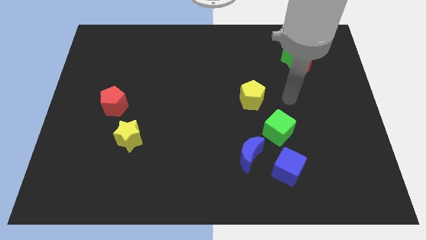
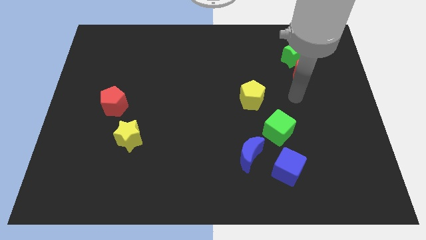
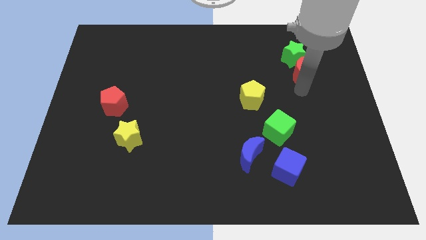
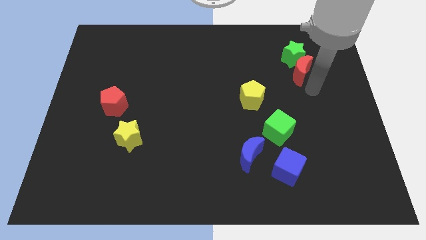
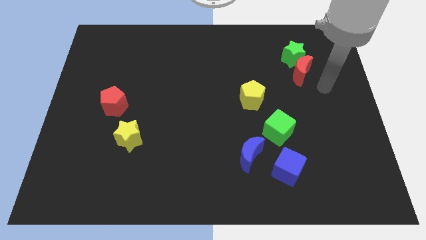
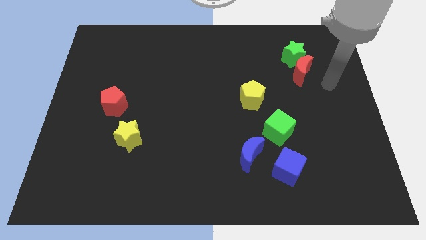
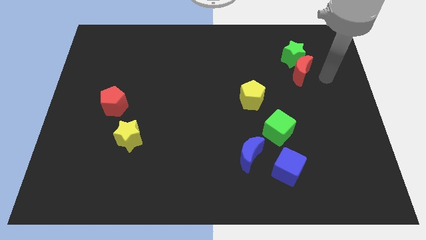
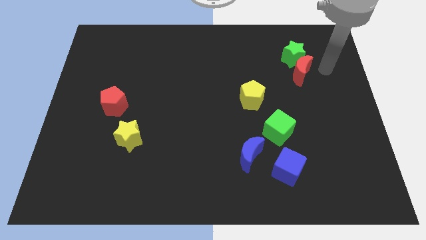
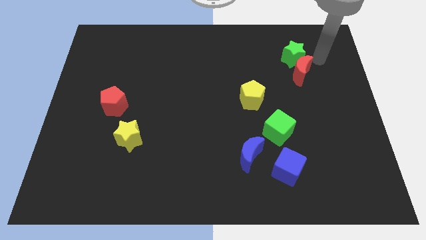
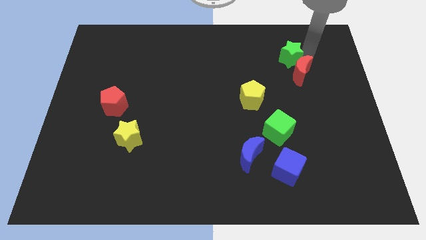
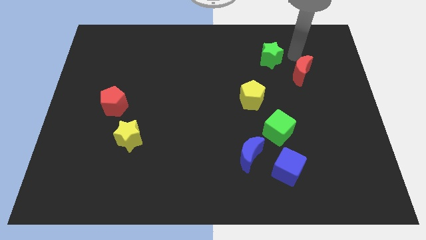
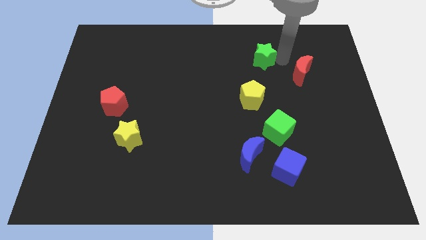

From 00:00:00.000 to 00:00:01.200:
separate the red moon from the green star

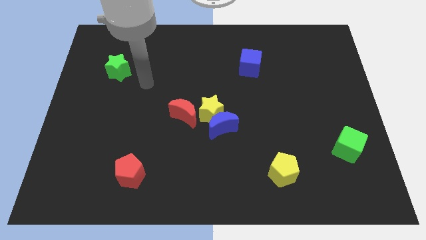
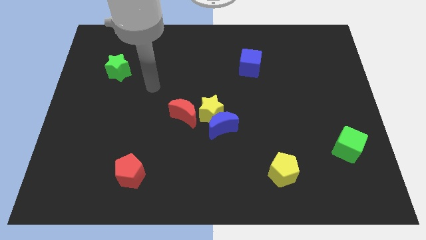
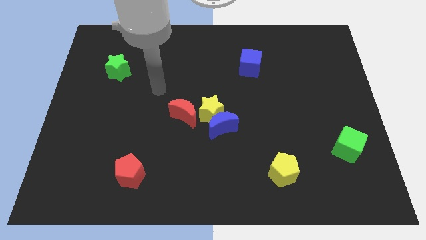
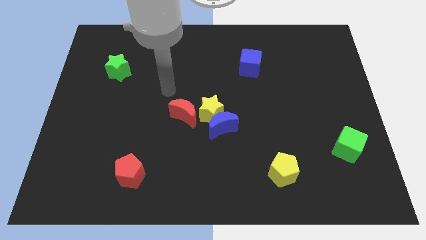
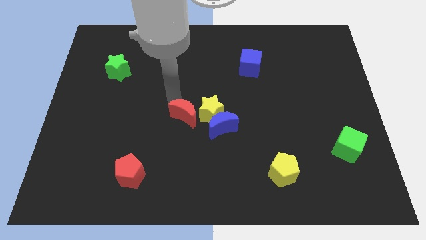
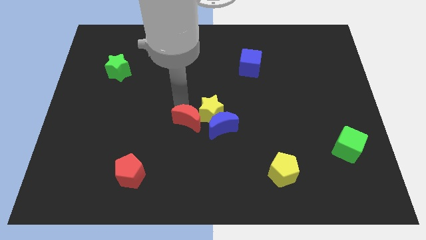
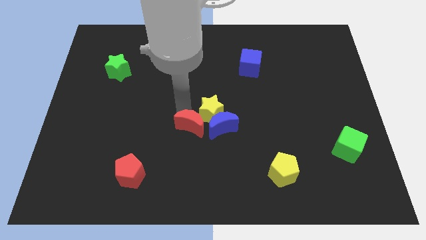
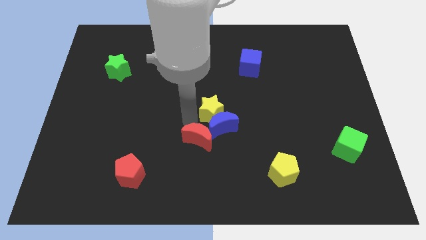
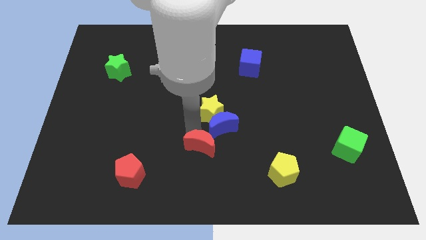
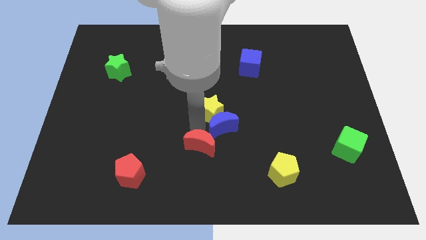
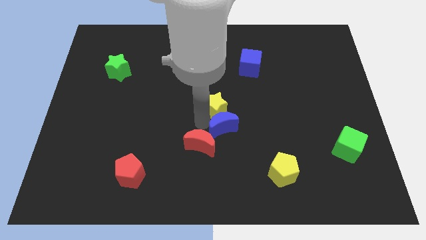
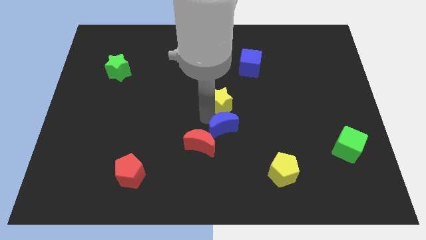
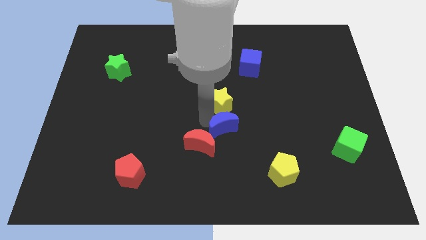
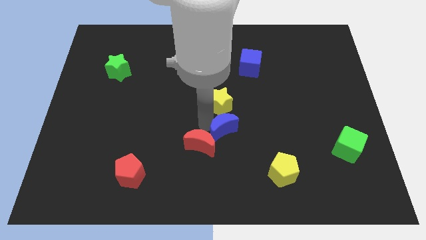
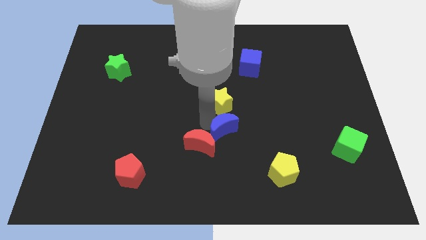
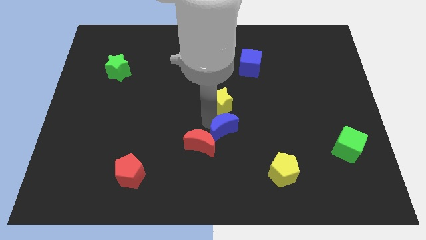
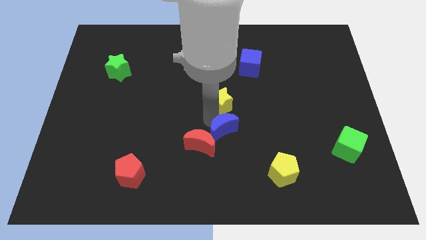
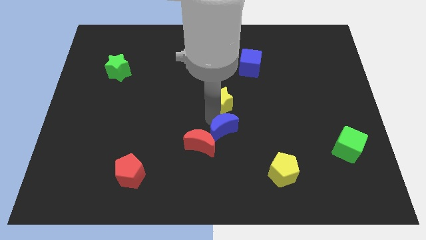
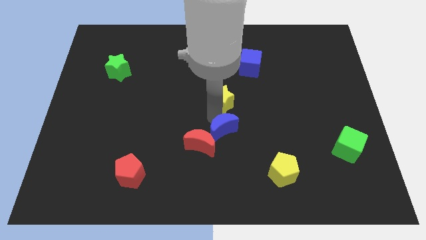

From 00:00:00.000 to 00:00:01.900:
separate the yellow star from the blue moon and red moon

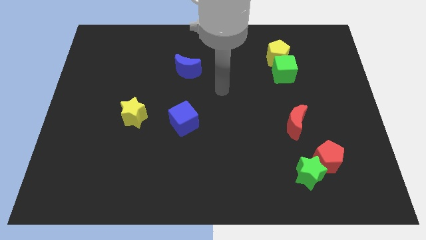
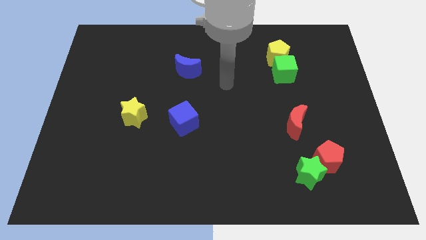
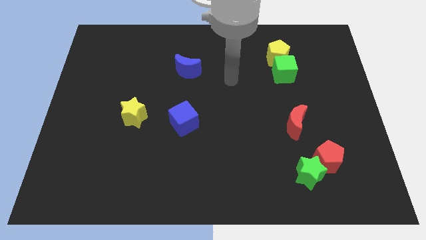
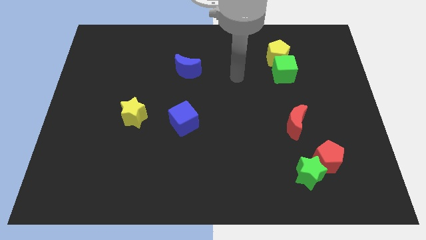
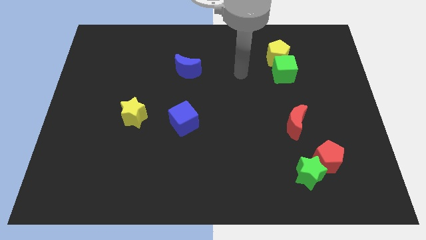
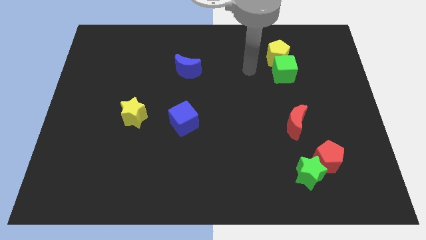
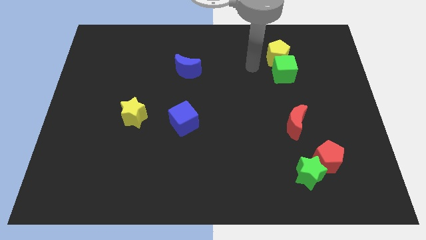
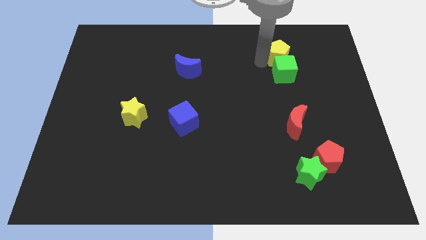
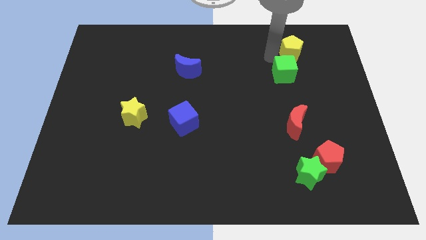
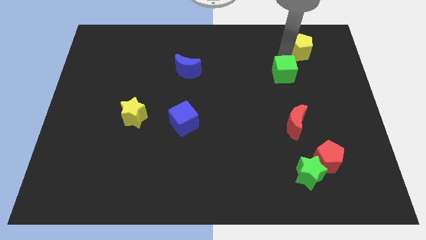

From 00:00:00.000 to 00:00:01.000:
separate the green cube from the yellow pentagon

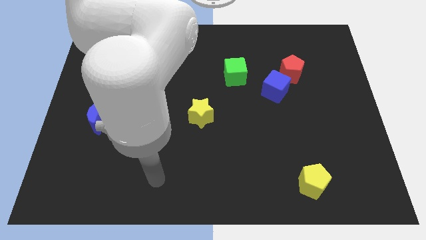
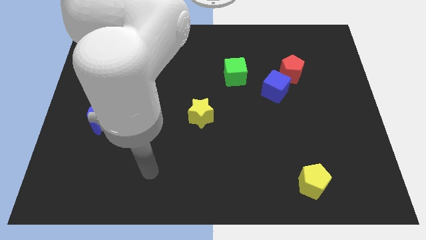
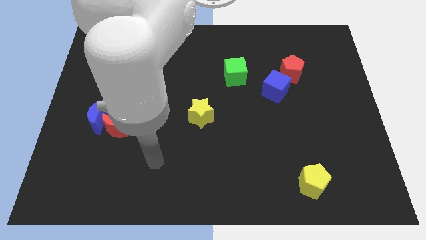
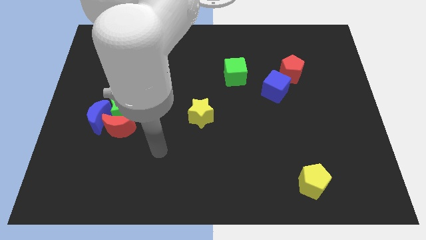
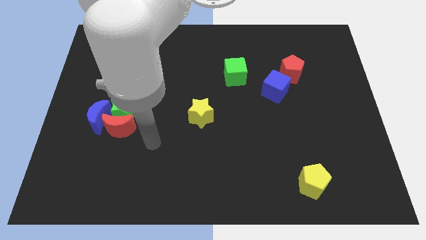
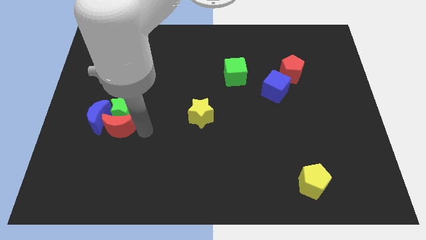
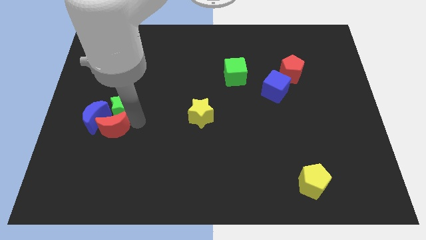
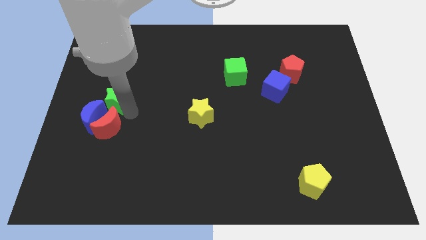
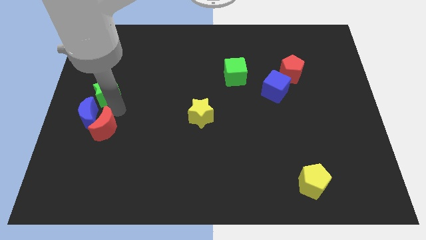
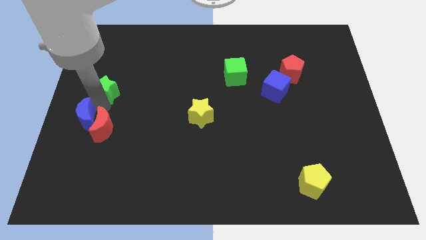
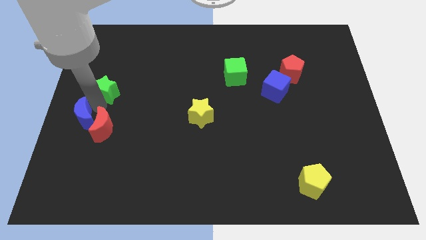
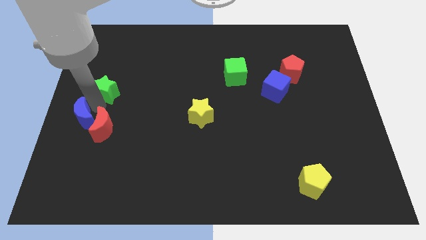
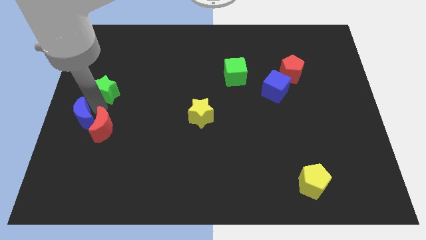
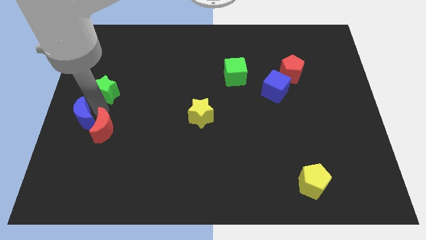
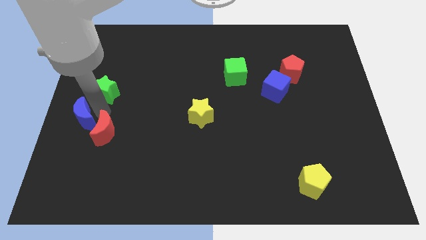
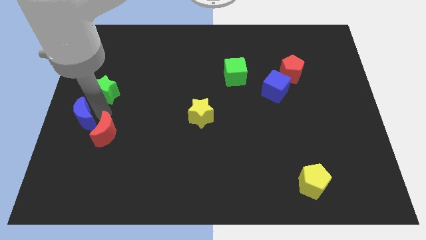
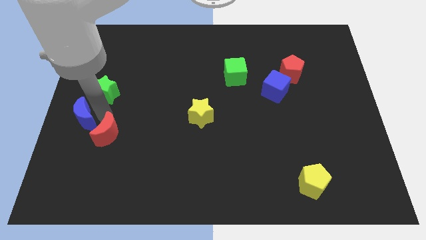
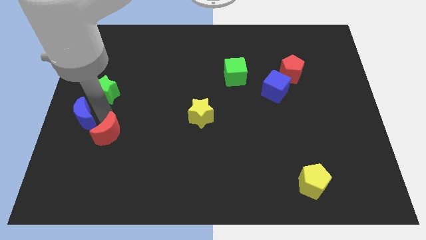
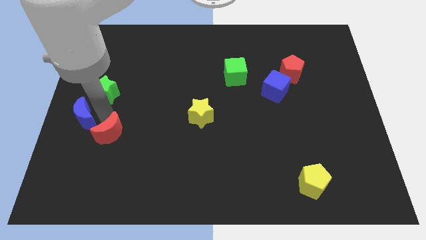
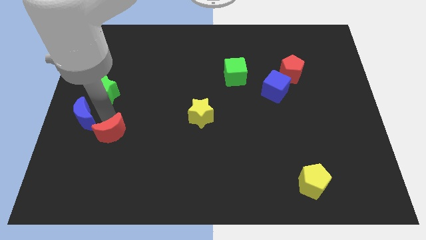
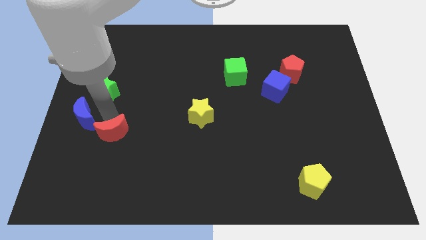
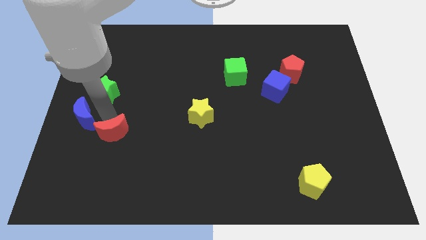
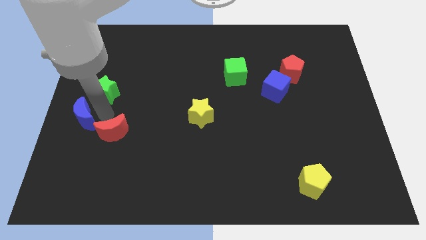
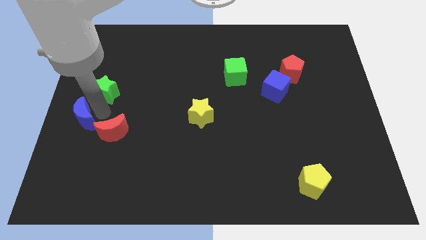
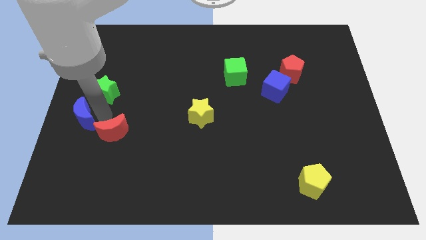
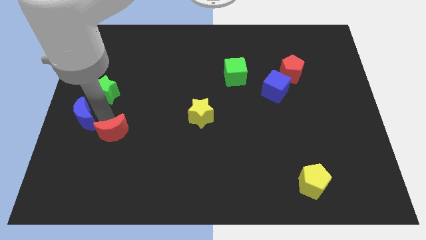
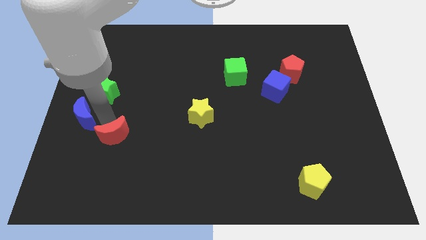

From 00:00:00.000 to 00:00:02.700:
separate the red moon from the green star and blue moon

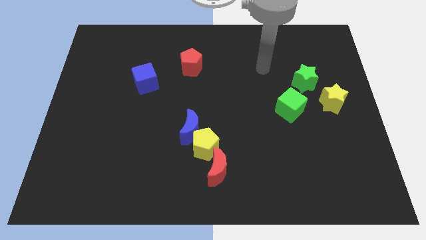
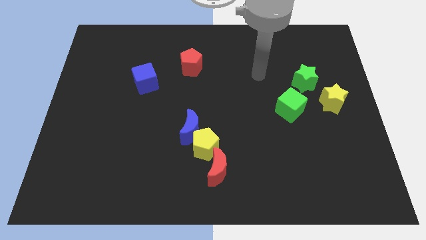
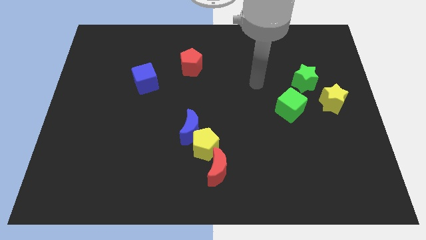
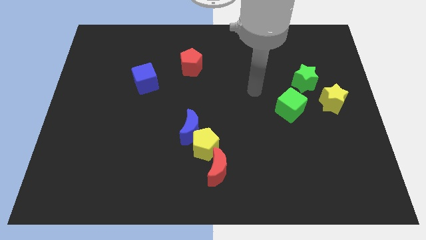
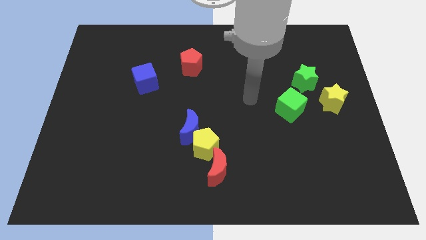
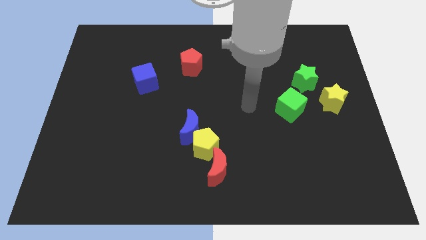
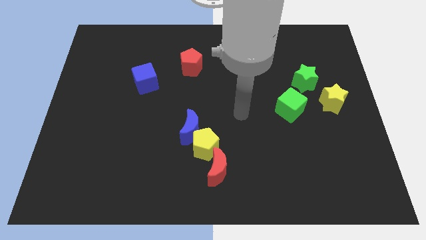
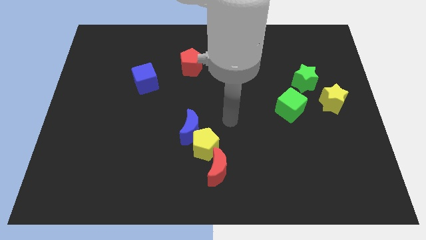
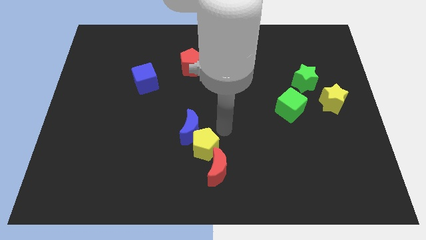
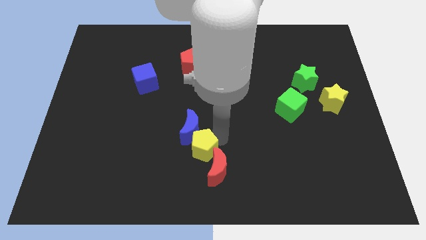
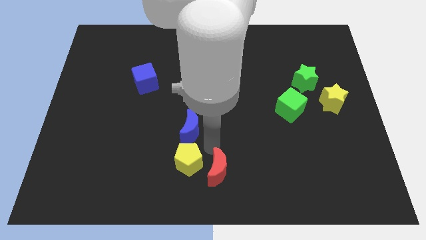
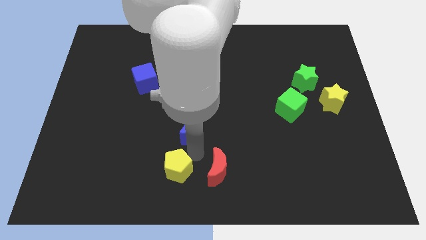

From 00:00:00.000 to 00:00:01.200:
separate the blue moon from the yellow pentagon

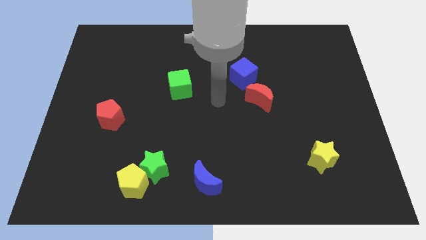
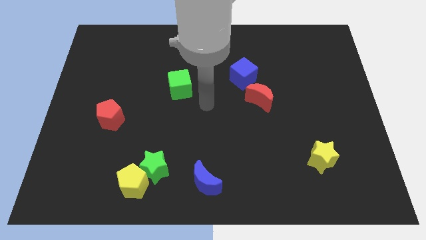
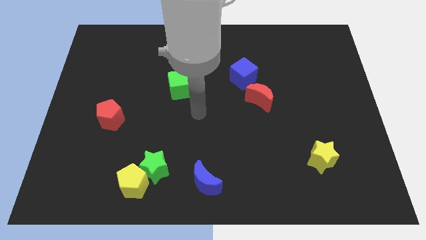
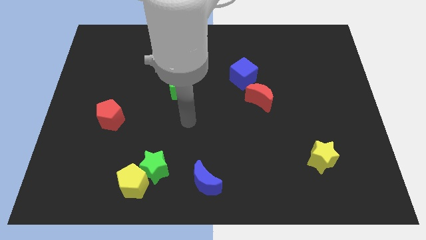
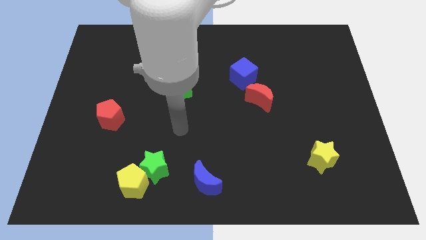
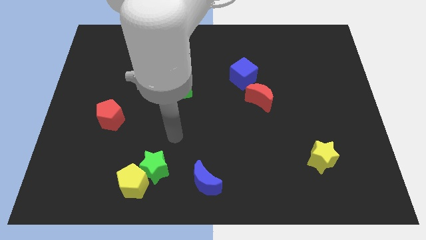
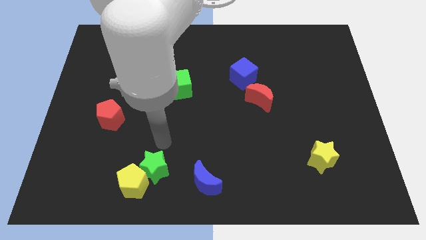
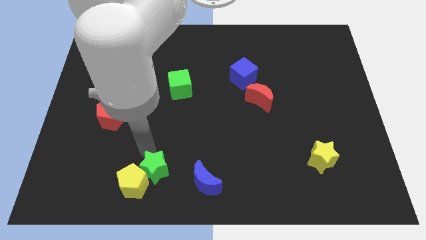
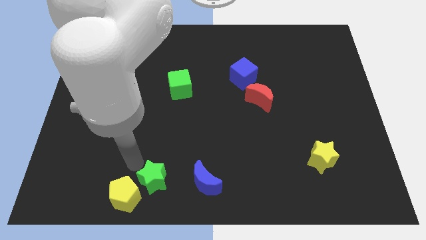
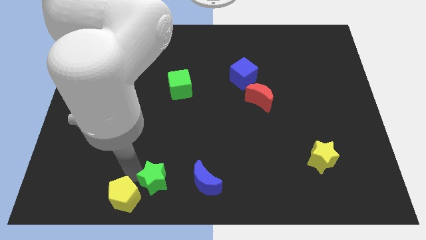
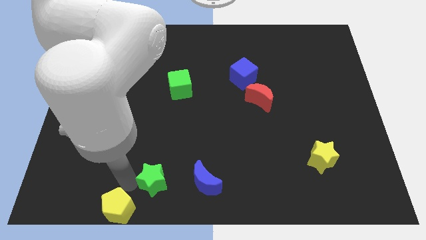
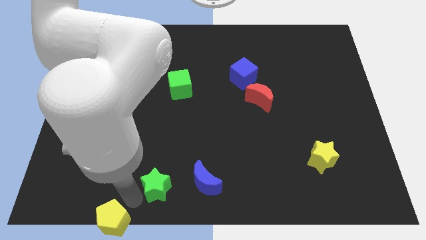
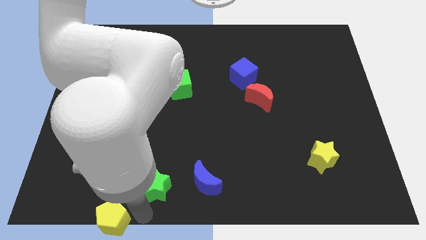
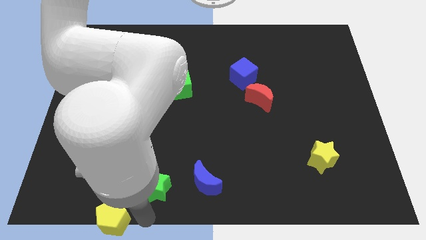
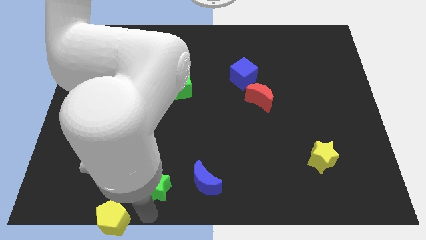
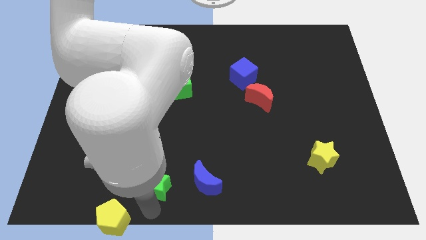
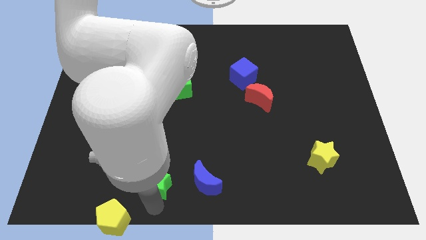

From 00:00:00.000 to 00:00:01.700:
separate the green star from the yellow pentagon
